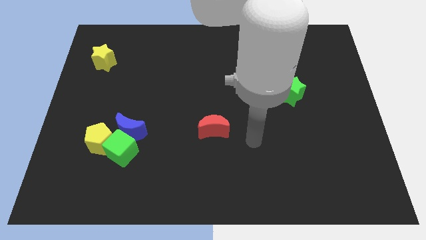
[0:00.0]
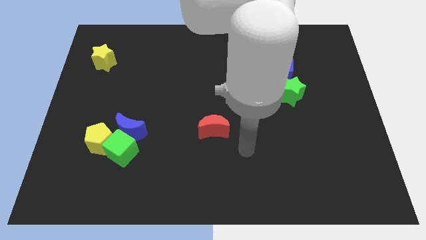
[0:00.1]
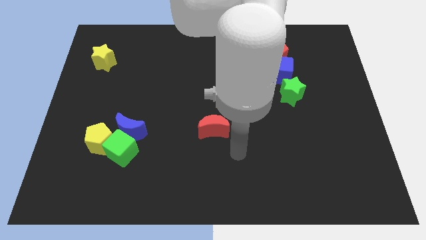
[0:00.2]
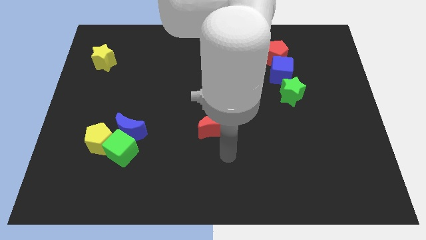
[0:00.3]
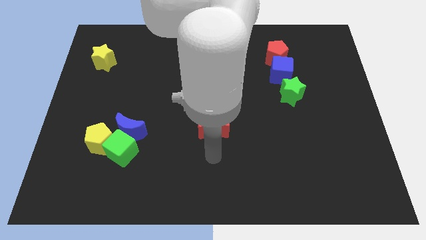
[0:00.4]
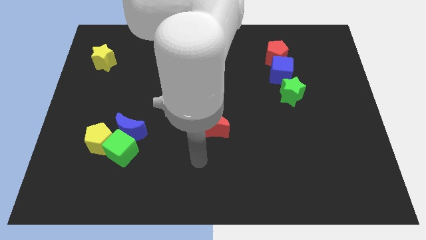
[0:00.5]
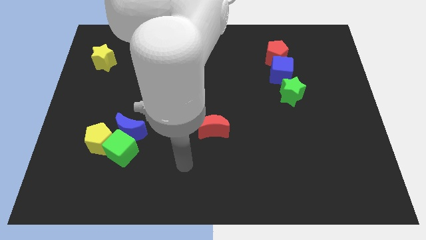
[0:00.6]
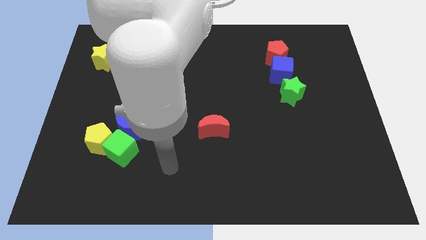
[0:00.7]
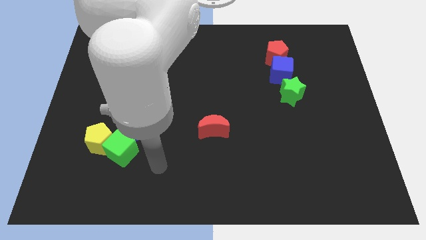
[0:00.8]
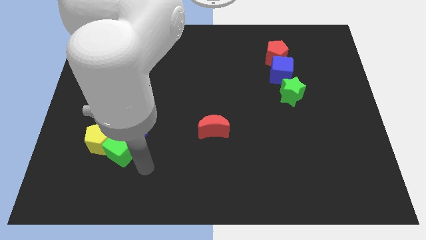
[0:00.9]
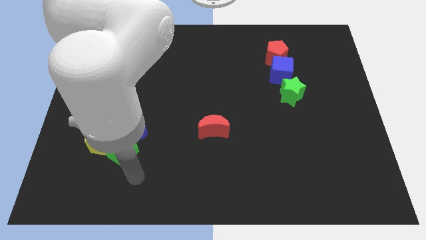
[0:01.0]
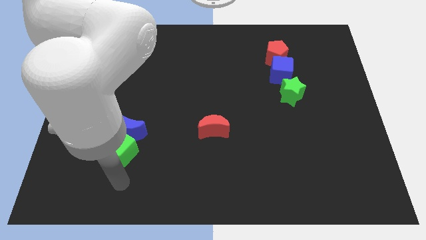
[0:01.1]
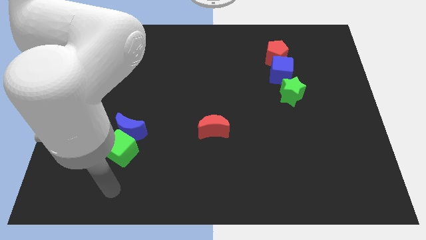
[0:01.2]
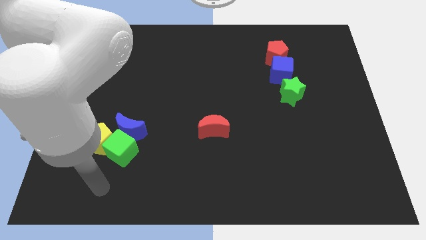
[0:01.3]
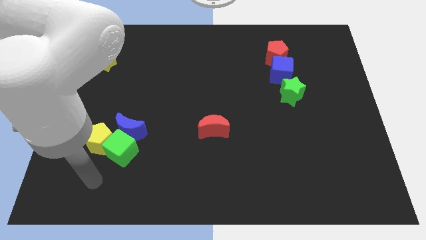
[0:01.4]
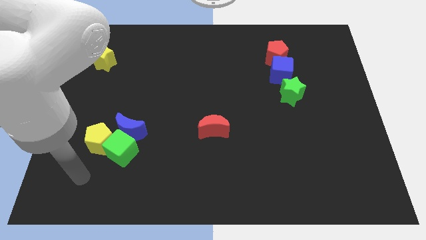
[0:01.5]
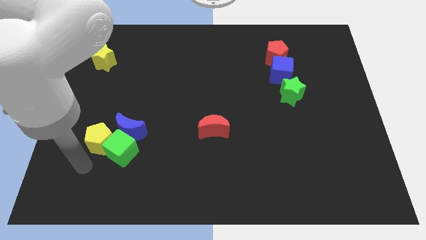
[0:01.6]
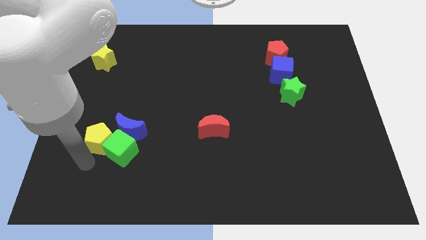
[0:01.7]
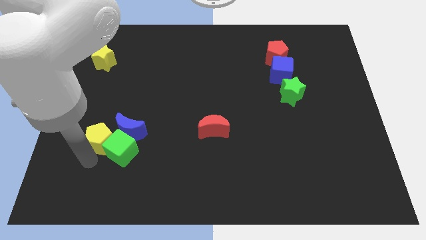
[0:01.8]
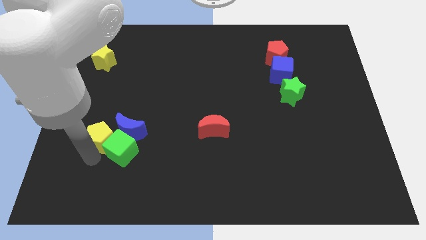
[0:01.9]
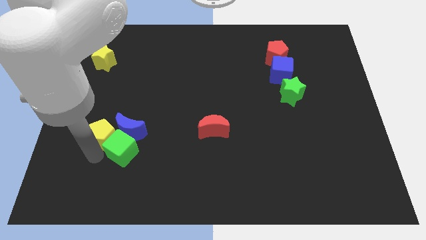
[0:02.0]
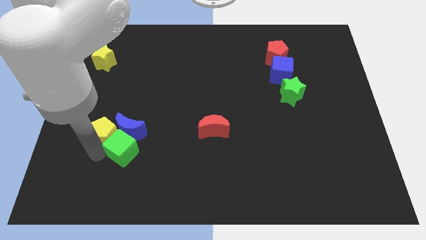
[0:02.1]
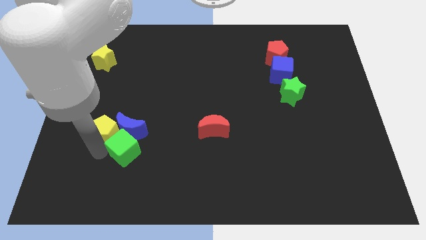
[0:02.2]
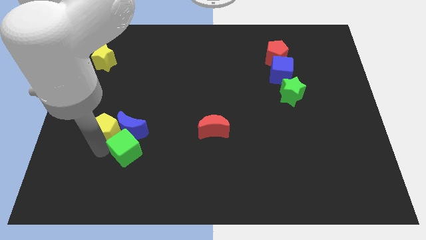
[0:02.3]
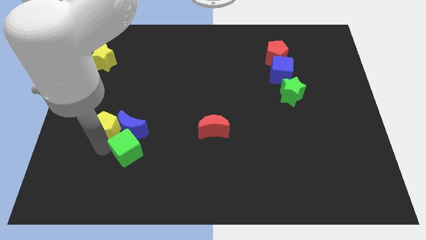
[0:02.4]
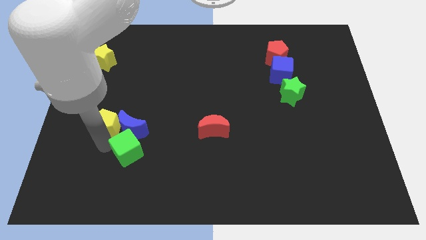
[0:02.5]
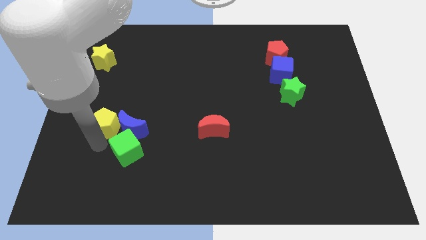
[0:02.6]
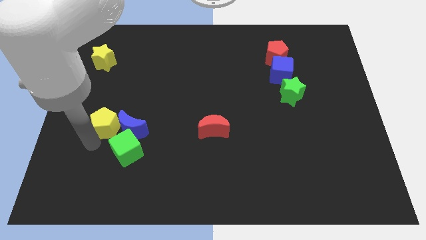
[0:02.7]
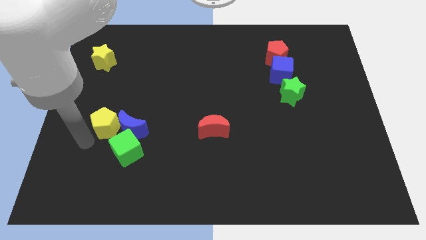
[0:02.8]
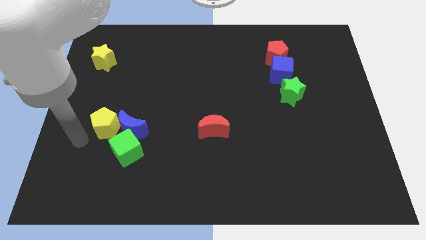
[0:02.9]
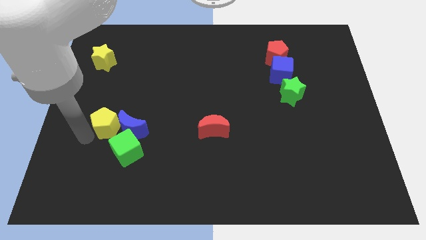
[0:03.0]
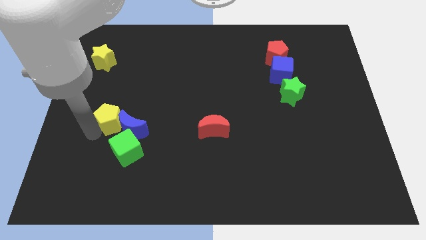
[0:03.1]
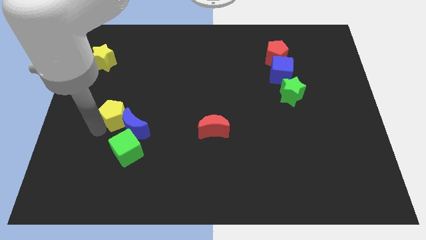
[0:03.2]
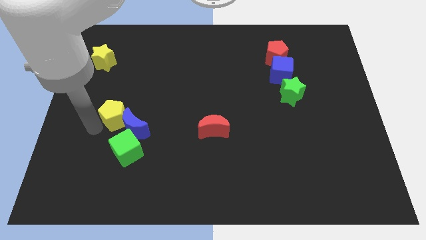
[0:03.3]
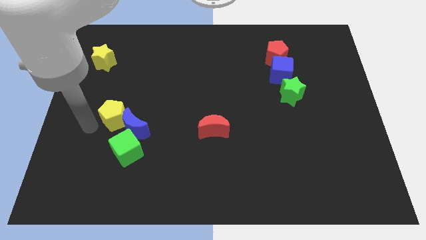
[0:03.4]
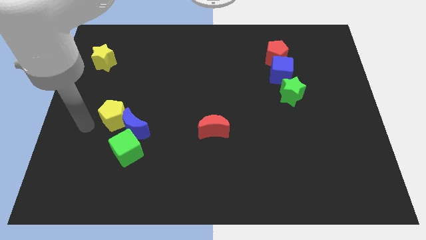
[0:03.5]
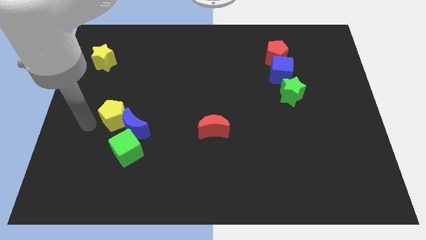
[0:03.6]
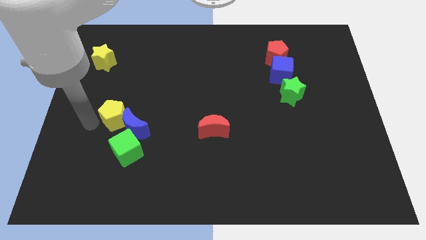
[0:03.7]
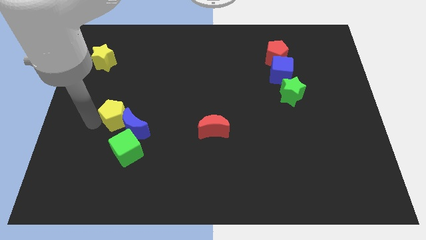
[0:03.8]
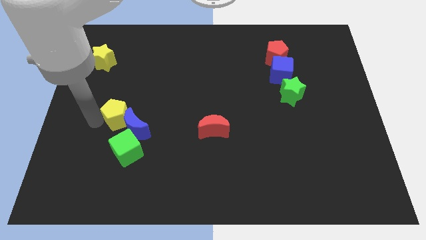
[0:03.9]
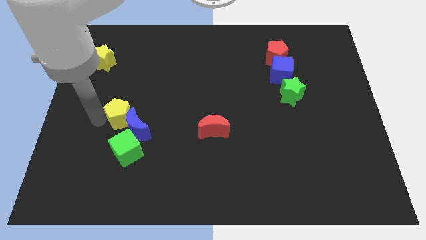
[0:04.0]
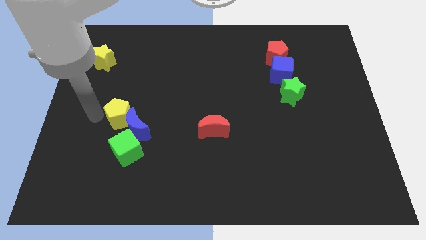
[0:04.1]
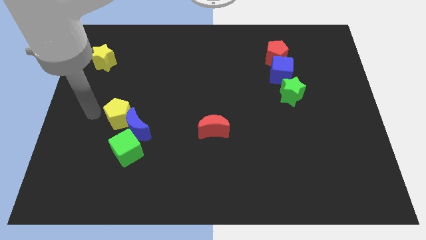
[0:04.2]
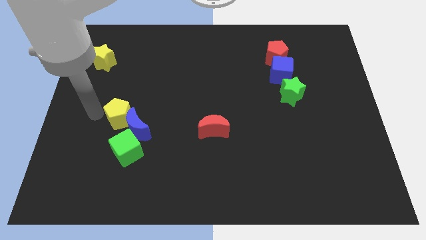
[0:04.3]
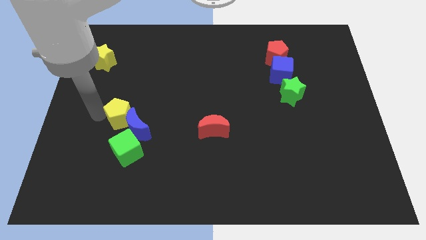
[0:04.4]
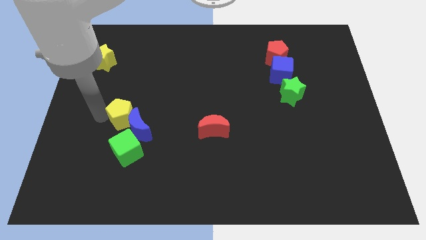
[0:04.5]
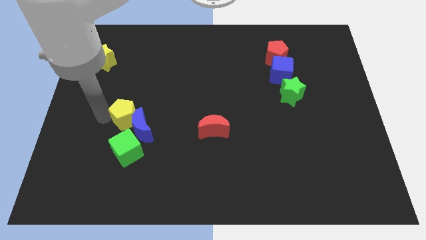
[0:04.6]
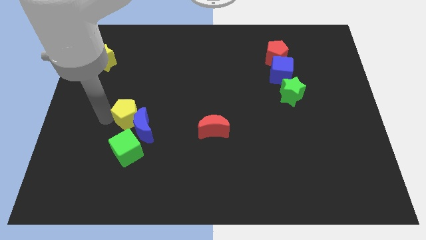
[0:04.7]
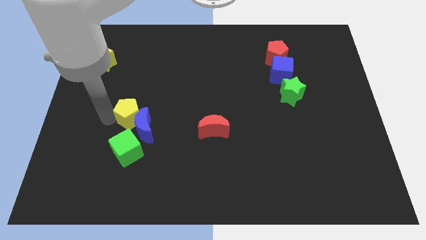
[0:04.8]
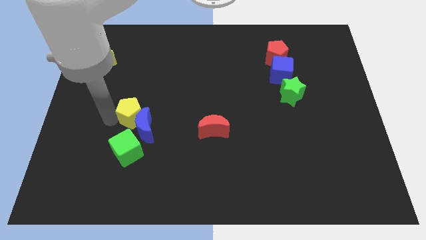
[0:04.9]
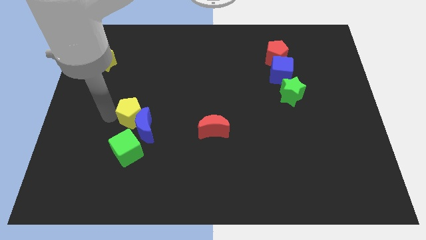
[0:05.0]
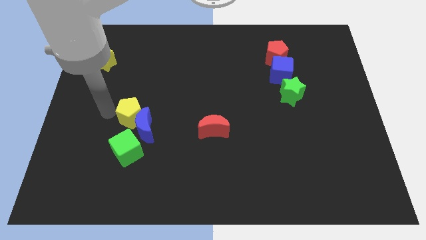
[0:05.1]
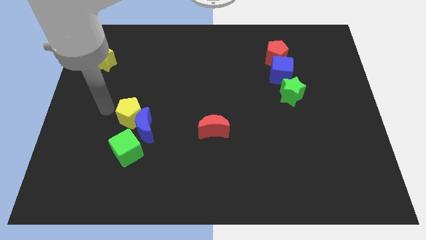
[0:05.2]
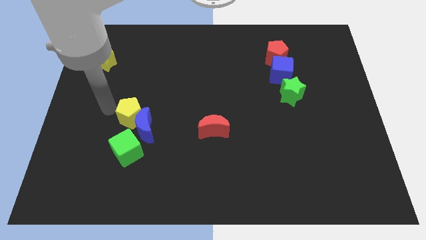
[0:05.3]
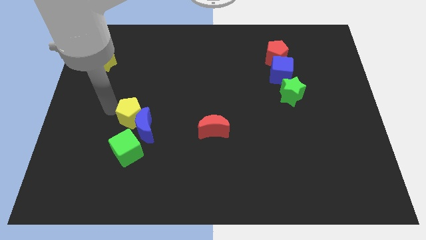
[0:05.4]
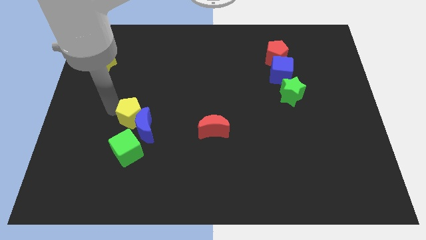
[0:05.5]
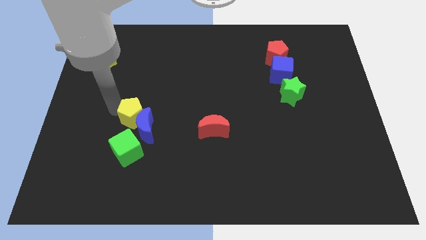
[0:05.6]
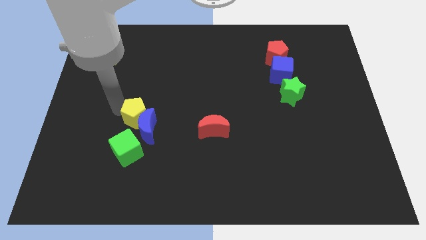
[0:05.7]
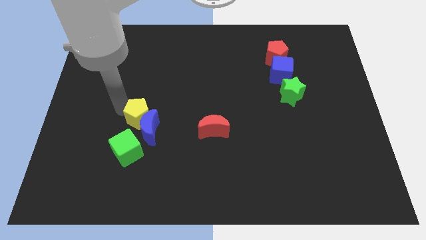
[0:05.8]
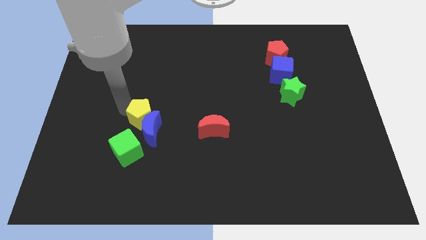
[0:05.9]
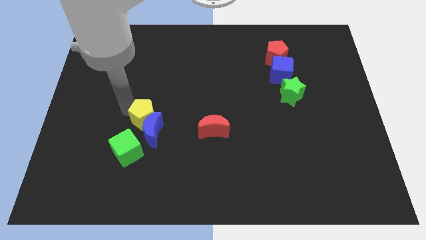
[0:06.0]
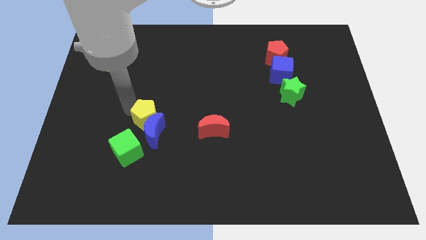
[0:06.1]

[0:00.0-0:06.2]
slightly move the yellow pentagon to the right

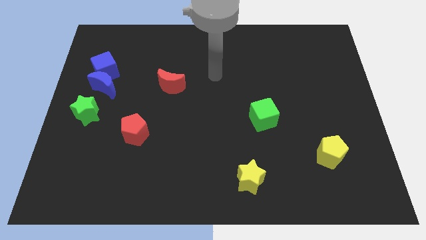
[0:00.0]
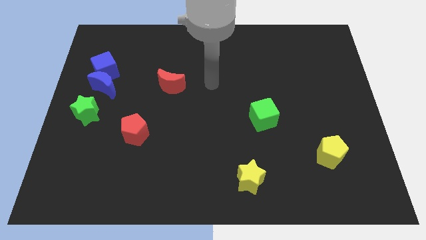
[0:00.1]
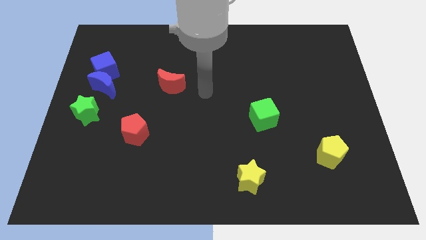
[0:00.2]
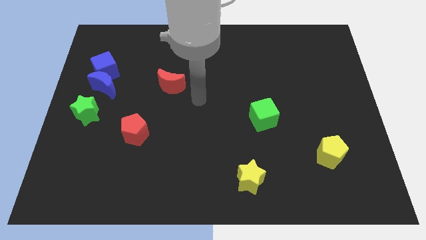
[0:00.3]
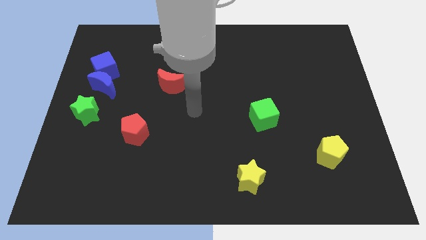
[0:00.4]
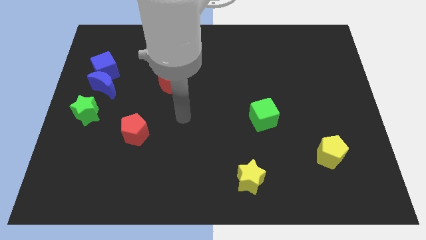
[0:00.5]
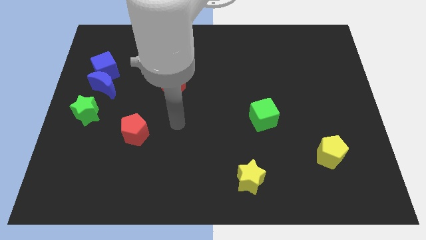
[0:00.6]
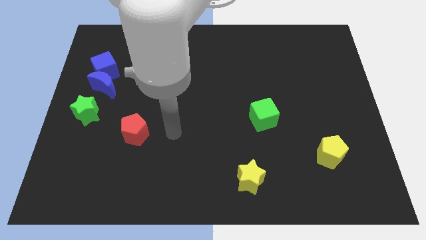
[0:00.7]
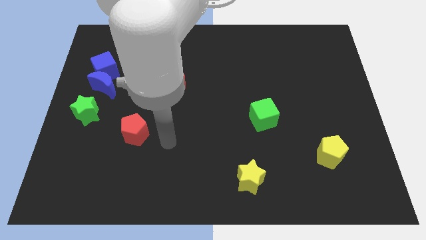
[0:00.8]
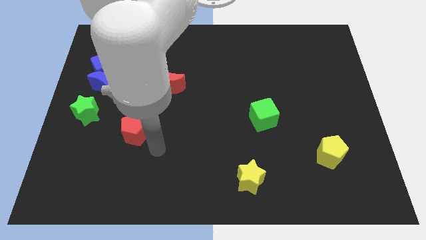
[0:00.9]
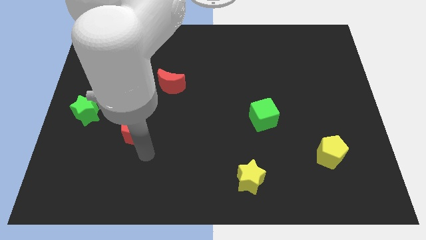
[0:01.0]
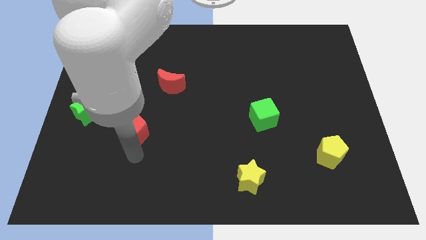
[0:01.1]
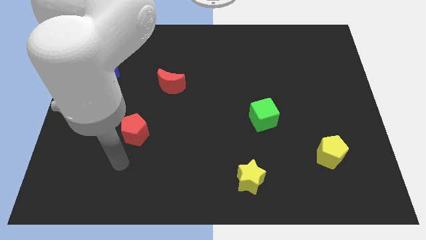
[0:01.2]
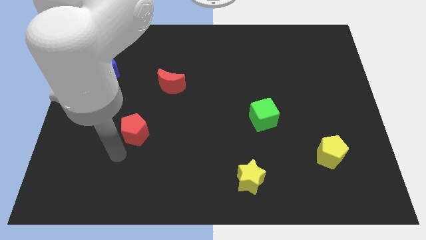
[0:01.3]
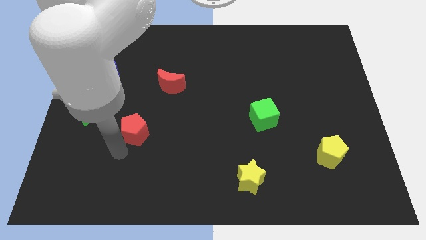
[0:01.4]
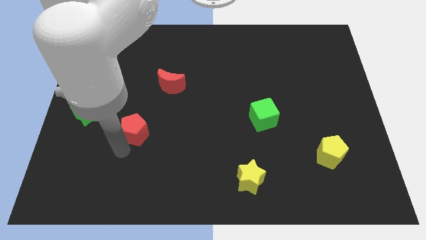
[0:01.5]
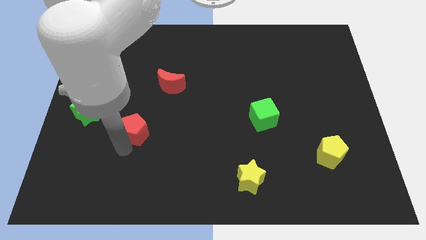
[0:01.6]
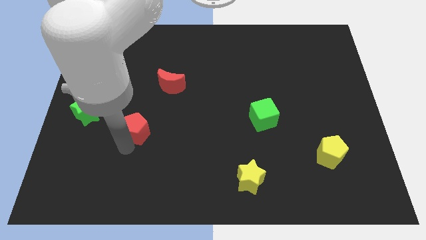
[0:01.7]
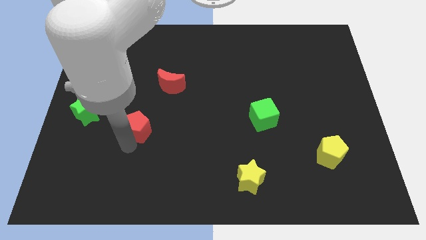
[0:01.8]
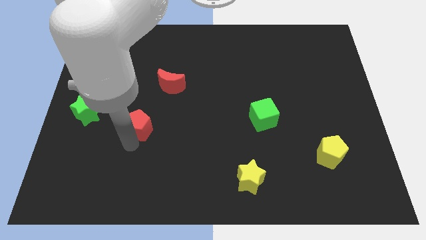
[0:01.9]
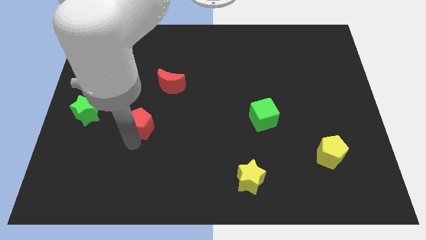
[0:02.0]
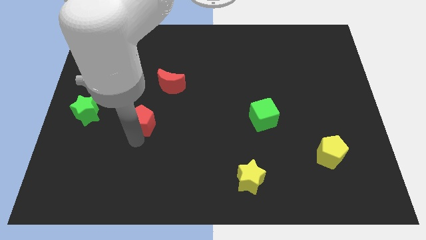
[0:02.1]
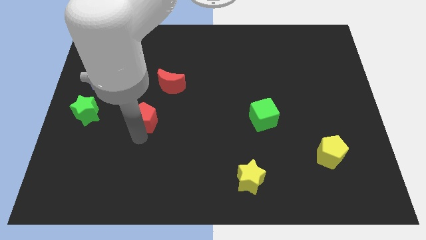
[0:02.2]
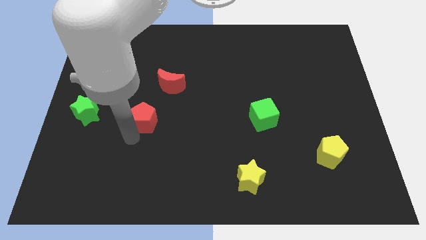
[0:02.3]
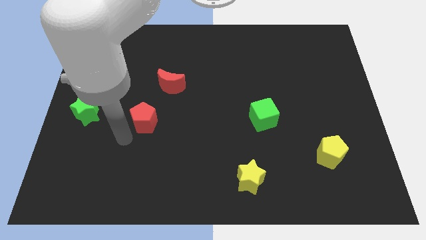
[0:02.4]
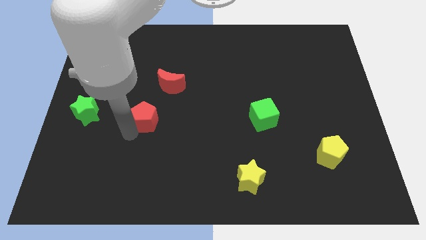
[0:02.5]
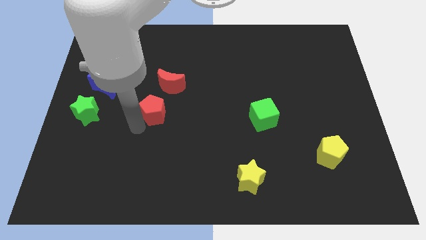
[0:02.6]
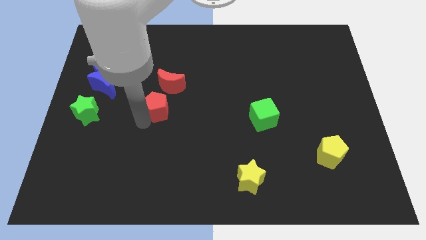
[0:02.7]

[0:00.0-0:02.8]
push the red pentagon a bit diagonally upwards and right
